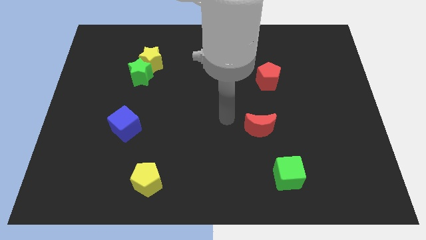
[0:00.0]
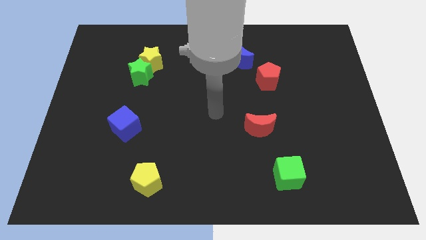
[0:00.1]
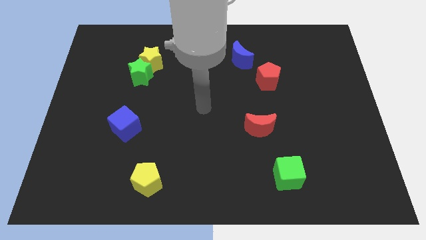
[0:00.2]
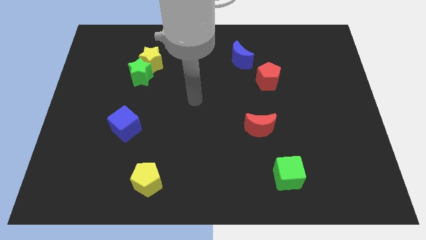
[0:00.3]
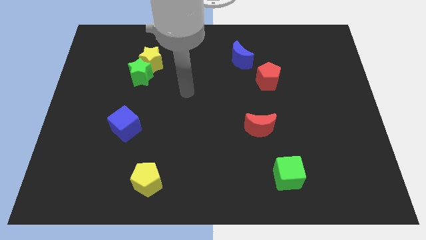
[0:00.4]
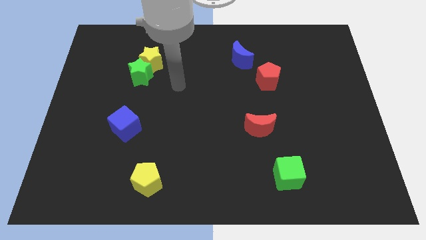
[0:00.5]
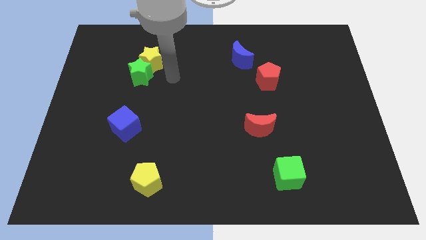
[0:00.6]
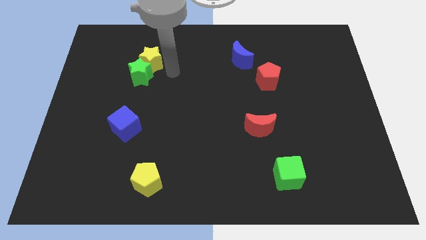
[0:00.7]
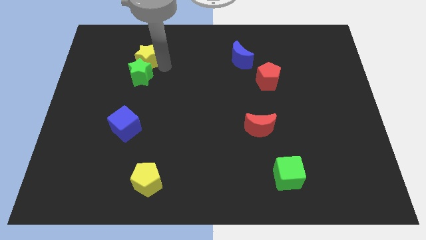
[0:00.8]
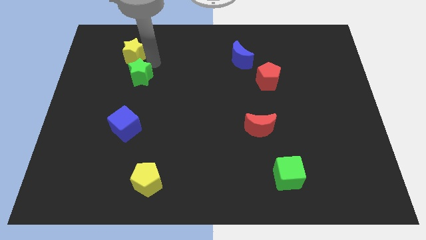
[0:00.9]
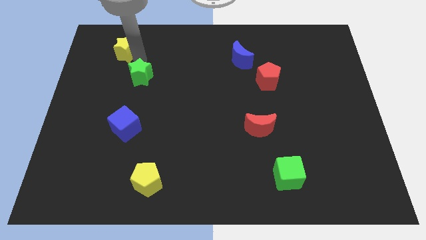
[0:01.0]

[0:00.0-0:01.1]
pull the green star apart from the yellow star

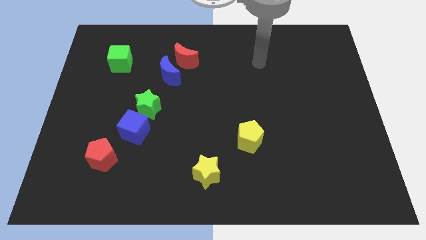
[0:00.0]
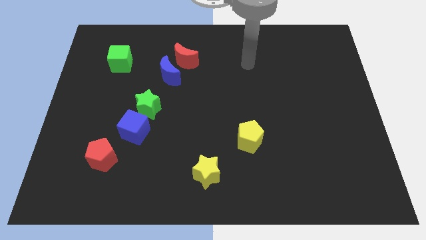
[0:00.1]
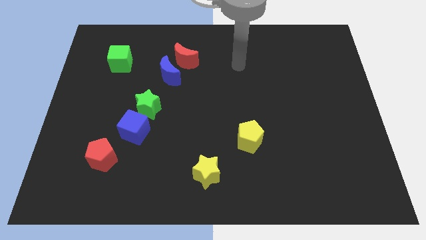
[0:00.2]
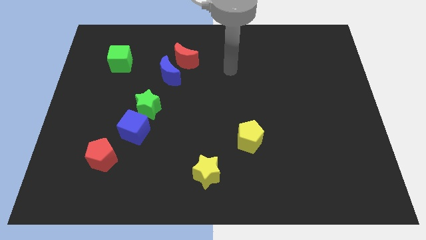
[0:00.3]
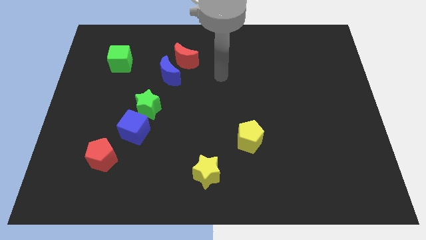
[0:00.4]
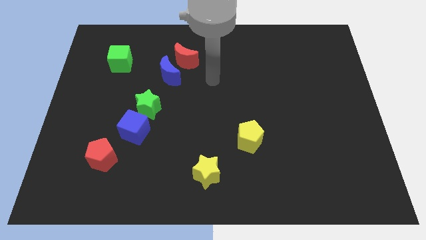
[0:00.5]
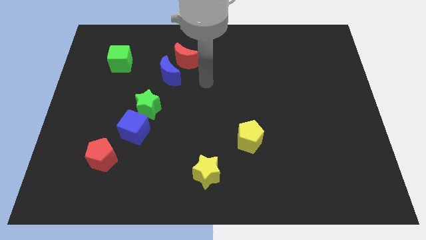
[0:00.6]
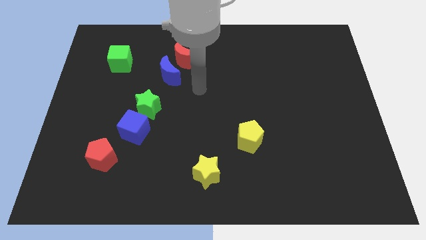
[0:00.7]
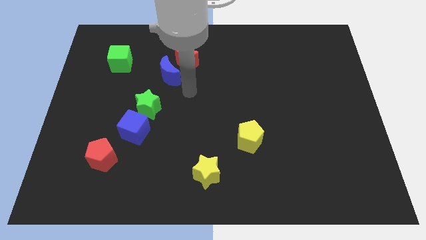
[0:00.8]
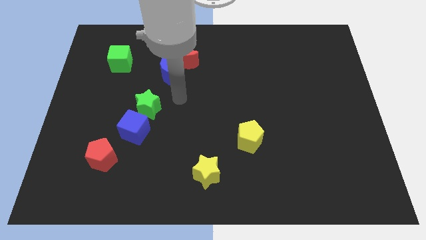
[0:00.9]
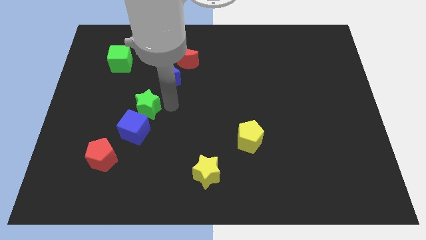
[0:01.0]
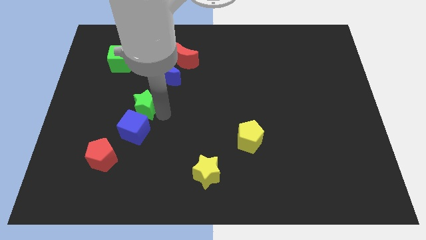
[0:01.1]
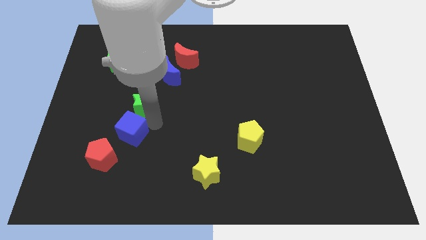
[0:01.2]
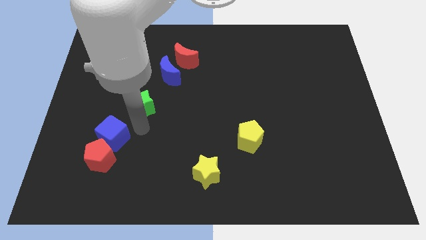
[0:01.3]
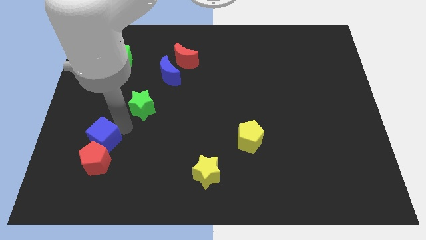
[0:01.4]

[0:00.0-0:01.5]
separate the green star from the blue cube

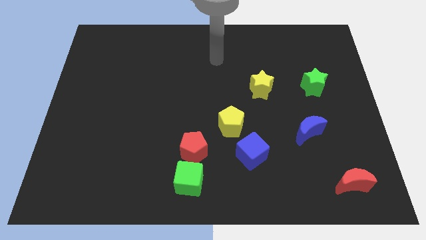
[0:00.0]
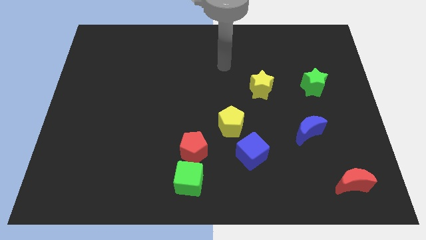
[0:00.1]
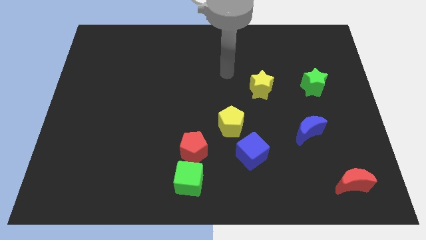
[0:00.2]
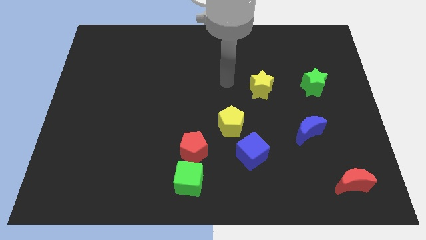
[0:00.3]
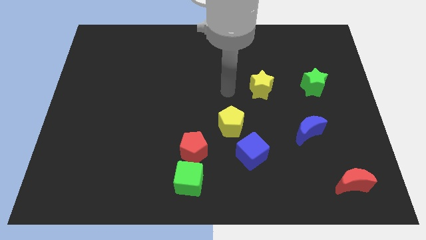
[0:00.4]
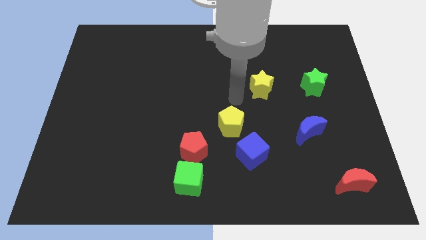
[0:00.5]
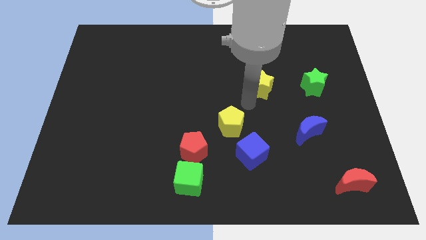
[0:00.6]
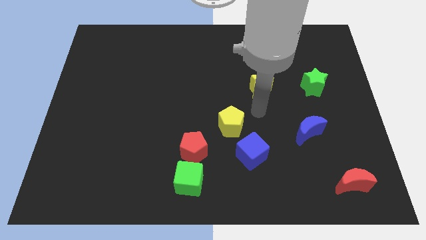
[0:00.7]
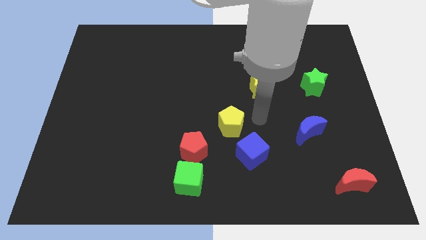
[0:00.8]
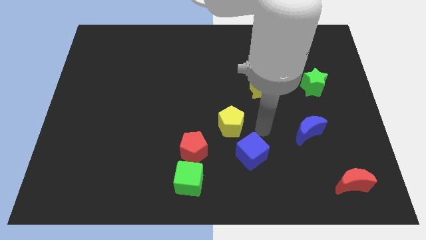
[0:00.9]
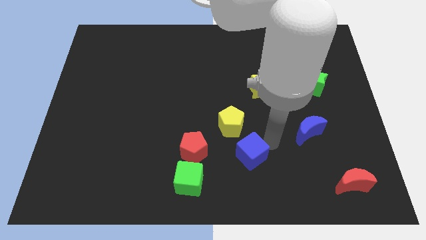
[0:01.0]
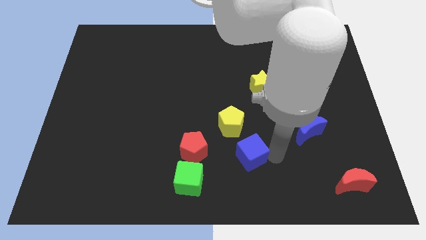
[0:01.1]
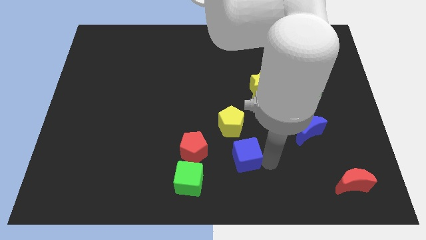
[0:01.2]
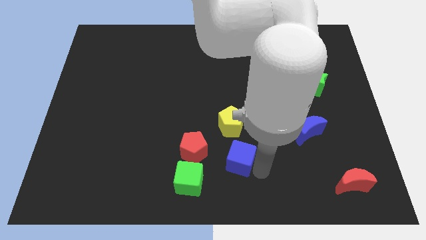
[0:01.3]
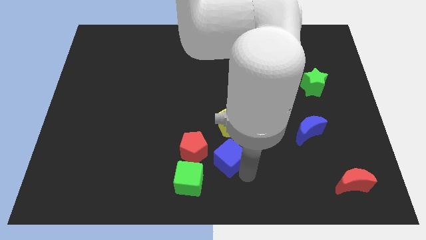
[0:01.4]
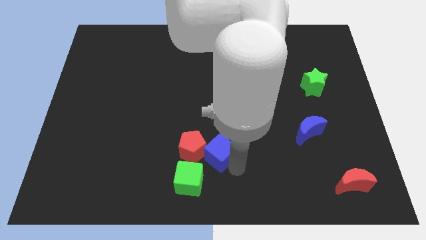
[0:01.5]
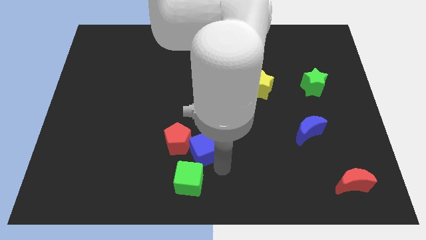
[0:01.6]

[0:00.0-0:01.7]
separate the red pentagon from the green cube

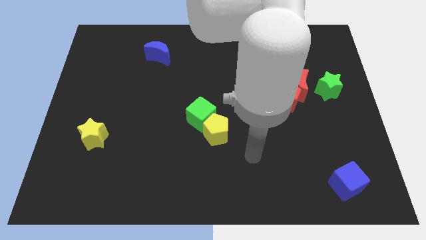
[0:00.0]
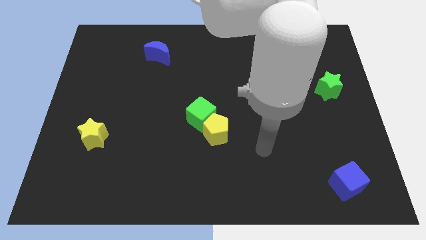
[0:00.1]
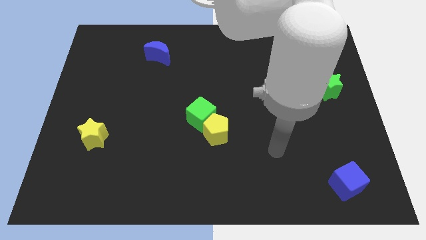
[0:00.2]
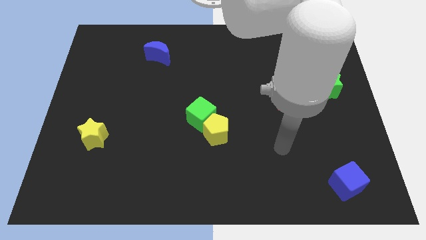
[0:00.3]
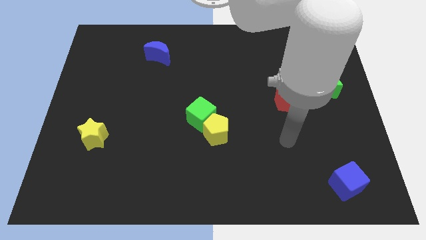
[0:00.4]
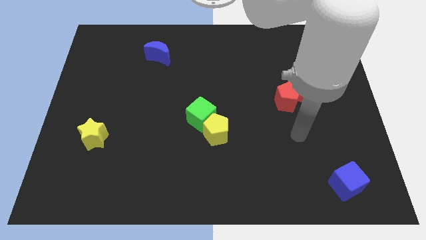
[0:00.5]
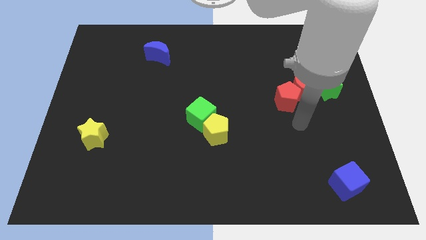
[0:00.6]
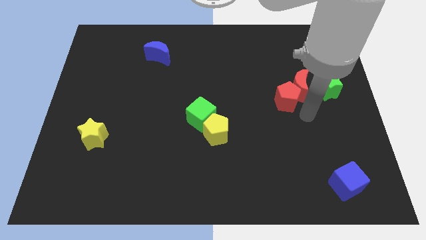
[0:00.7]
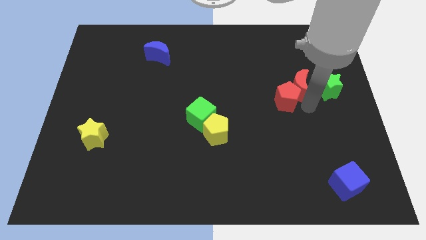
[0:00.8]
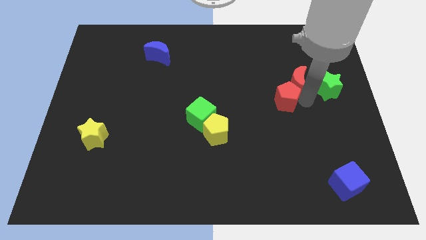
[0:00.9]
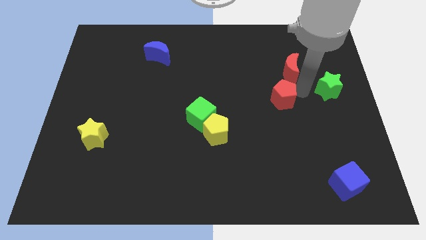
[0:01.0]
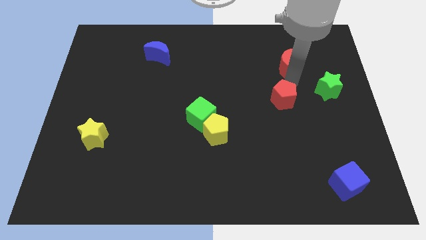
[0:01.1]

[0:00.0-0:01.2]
pull the red pentagon apart from the red moon

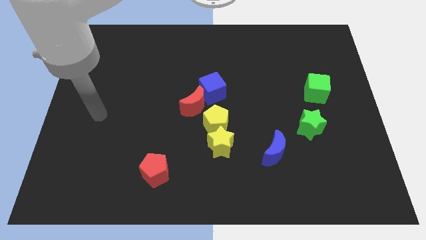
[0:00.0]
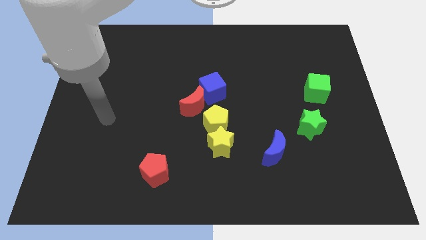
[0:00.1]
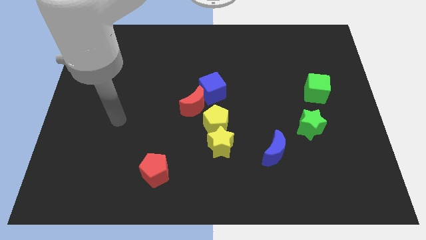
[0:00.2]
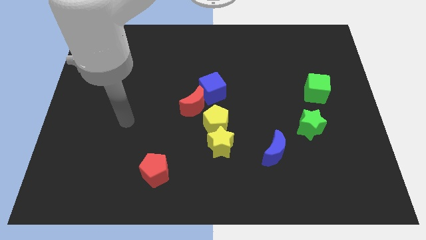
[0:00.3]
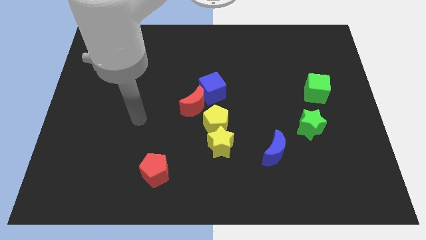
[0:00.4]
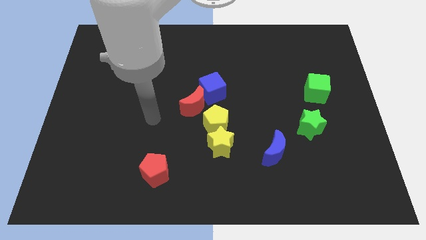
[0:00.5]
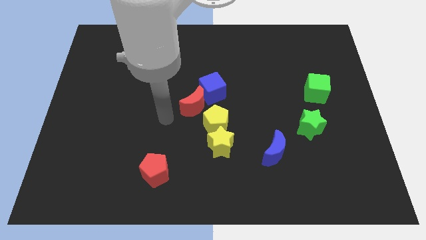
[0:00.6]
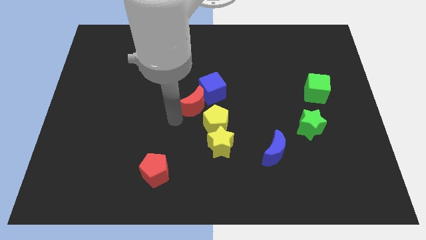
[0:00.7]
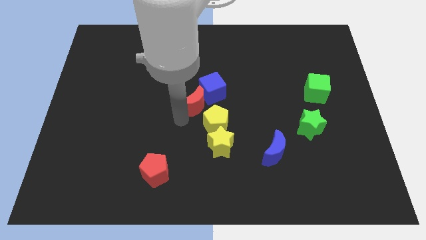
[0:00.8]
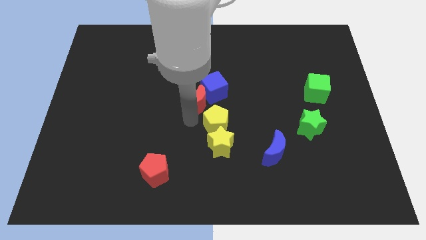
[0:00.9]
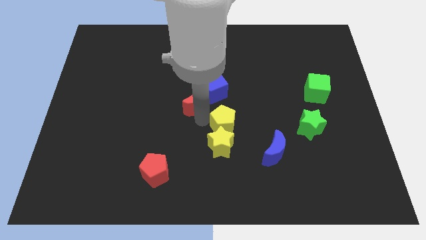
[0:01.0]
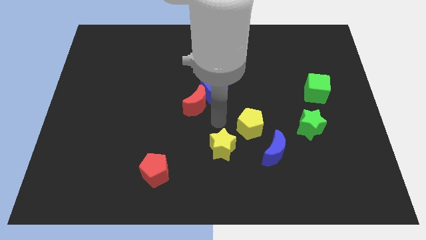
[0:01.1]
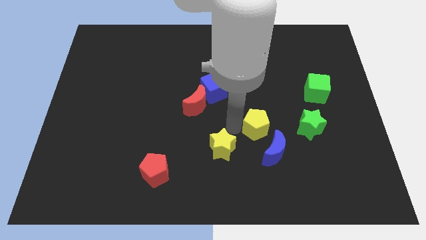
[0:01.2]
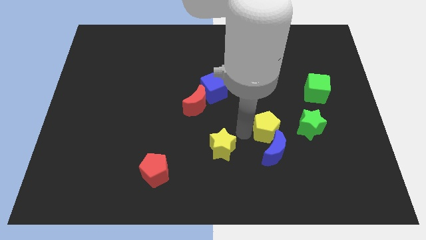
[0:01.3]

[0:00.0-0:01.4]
separate the yellow star from the yellow pentagon

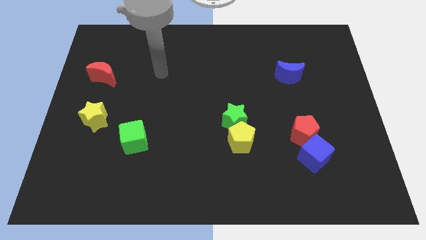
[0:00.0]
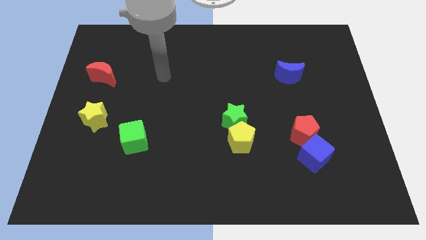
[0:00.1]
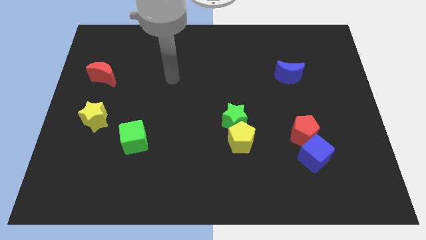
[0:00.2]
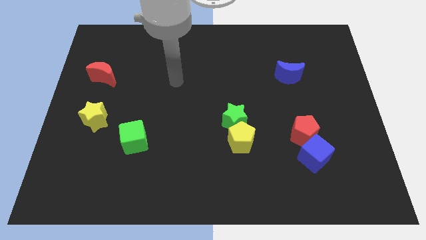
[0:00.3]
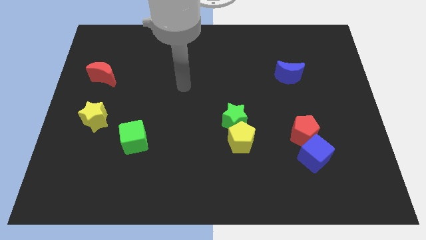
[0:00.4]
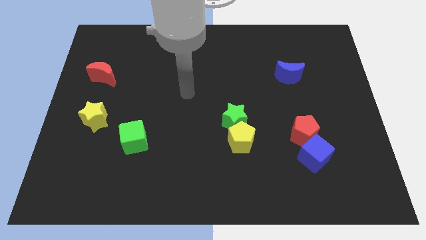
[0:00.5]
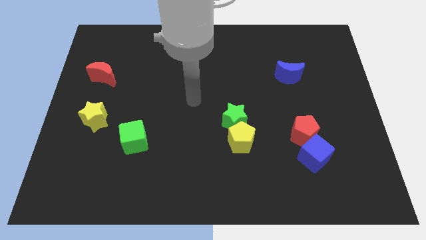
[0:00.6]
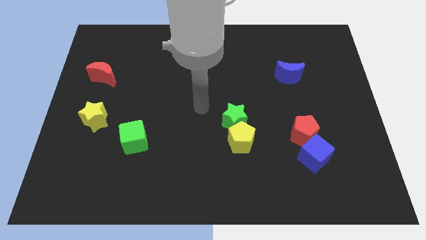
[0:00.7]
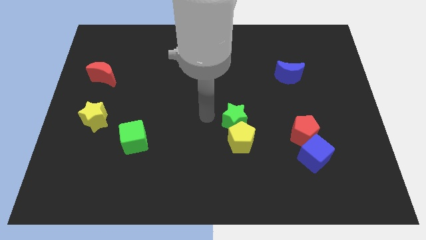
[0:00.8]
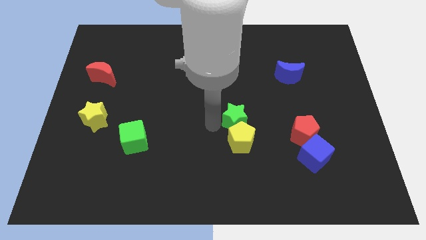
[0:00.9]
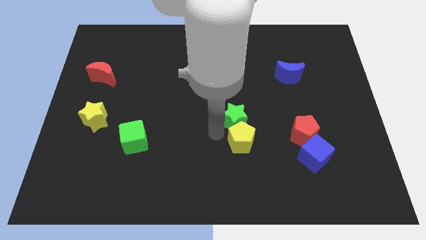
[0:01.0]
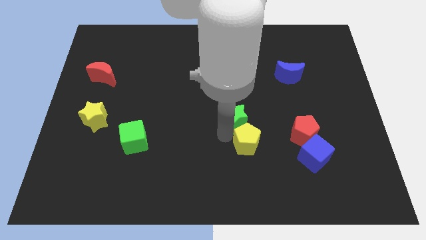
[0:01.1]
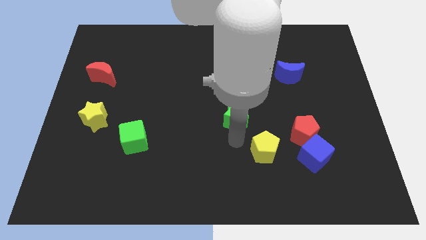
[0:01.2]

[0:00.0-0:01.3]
separate the green star from the yellow pentagon

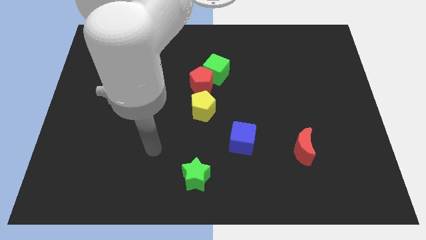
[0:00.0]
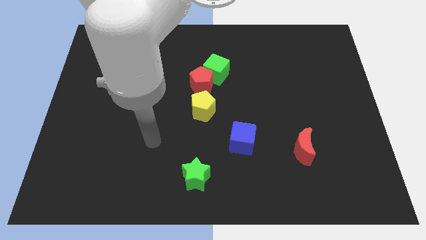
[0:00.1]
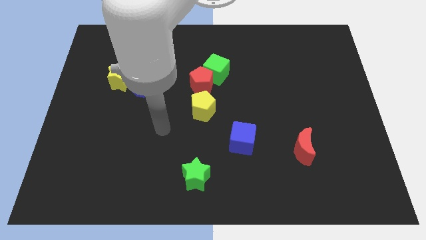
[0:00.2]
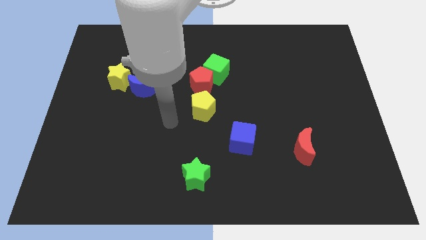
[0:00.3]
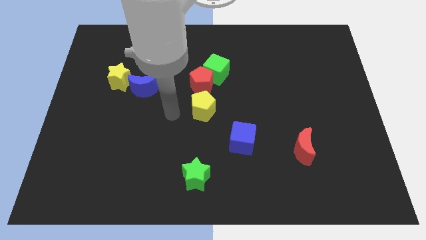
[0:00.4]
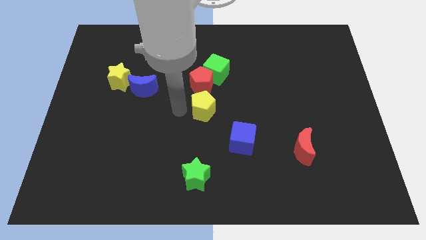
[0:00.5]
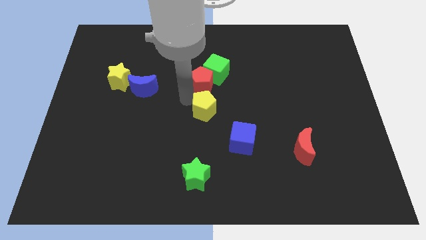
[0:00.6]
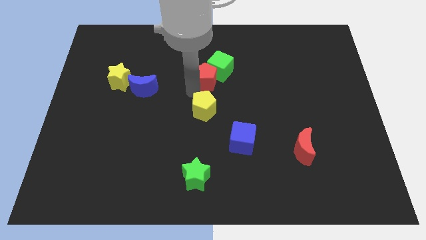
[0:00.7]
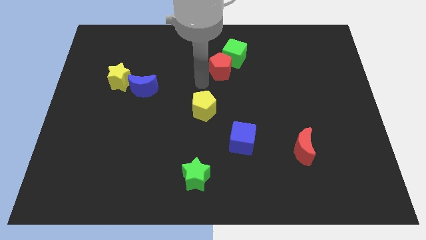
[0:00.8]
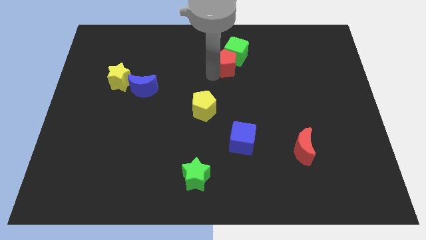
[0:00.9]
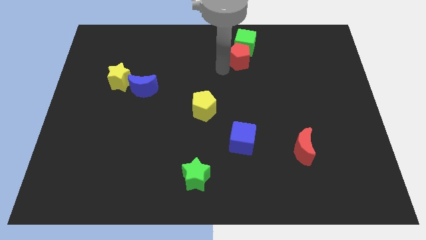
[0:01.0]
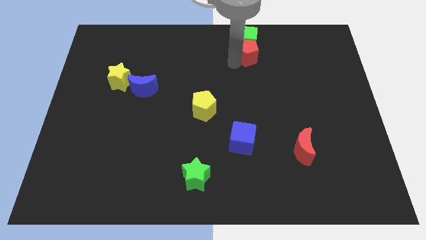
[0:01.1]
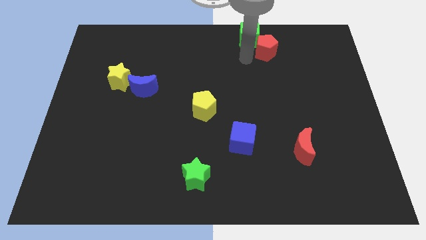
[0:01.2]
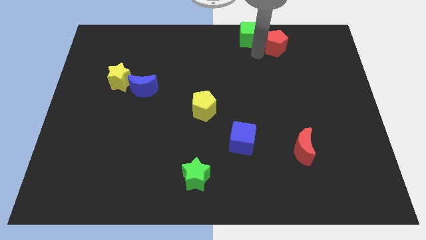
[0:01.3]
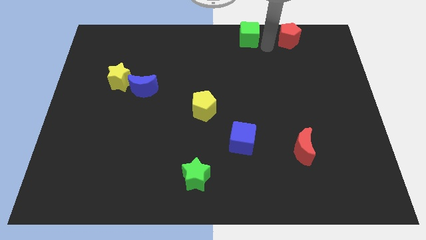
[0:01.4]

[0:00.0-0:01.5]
pull the green cube apart from the red pentagon
